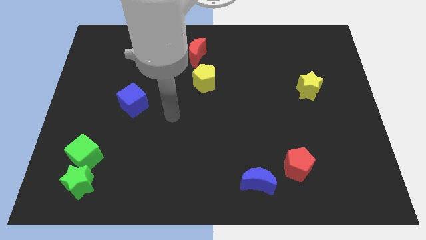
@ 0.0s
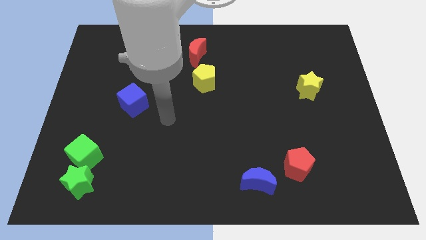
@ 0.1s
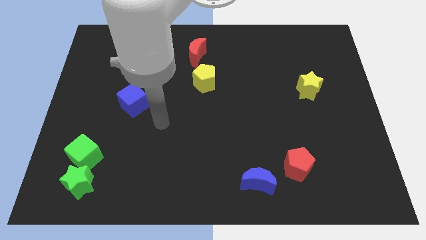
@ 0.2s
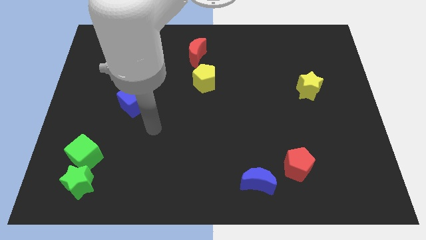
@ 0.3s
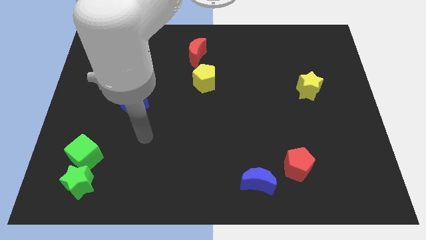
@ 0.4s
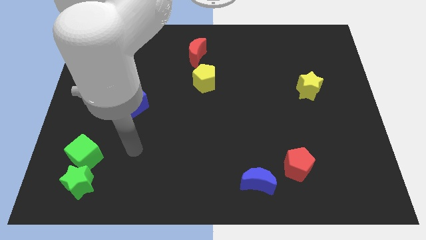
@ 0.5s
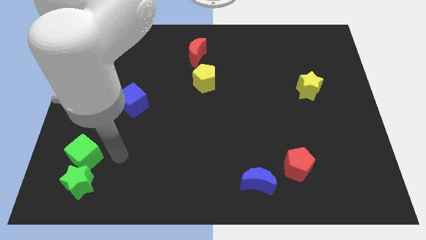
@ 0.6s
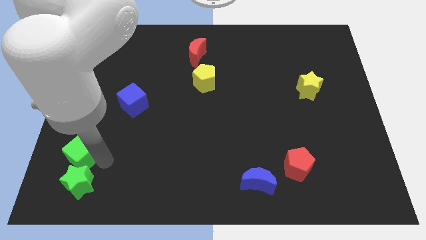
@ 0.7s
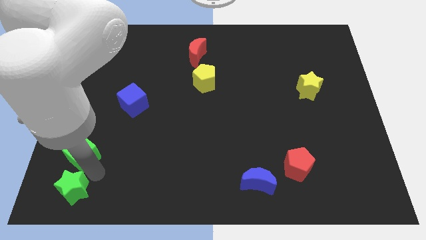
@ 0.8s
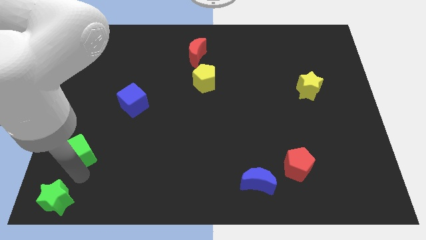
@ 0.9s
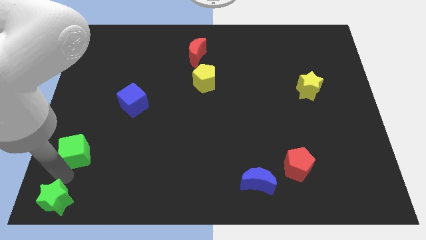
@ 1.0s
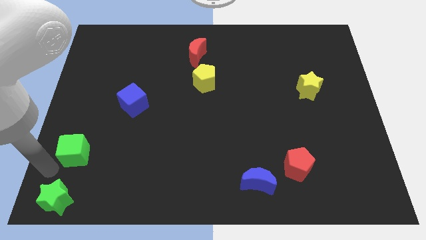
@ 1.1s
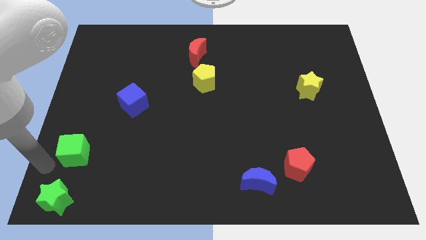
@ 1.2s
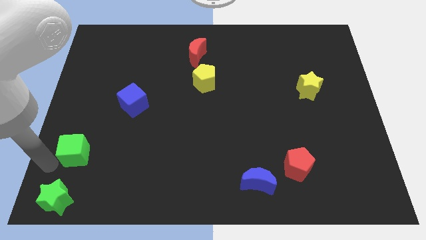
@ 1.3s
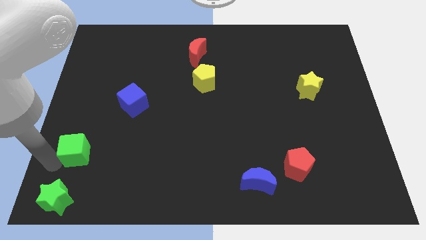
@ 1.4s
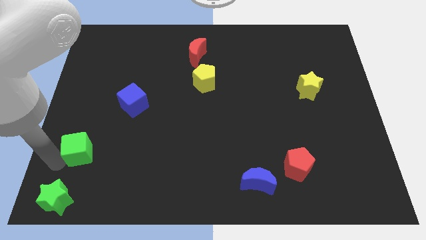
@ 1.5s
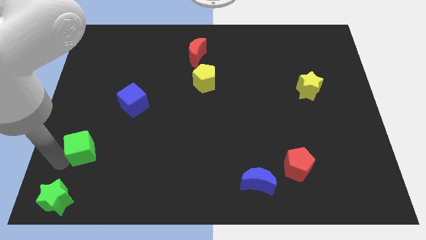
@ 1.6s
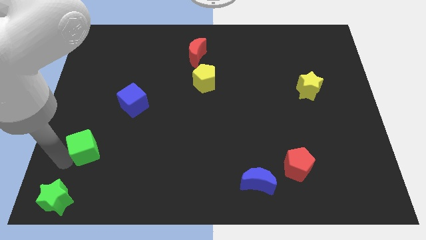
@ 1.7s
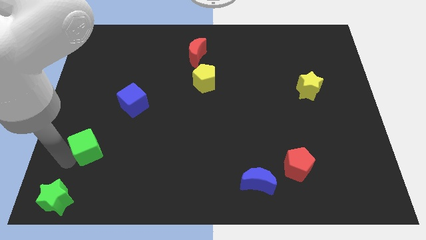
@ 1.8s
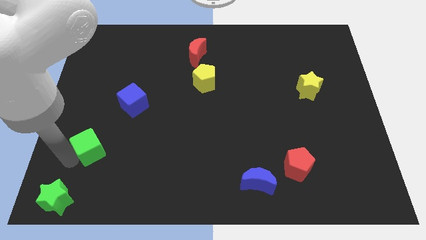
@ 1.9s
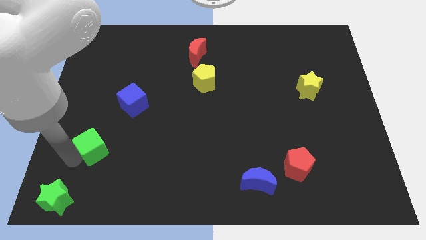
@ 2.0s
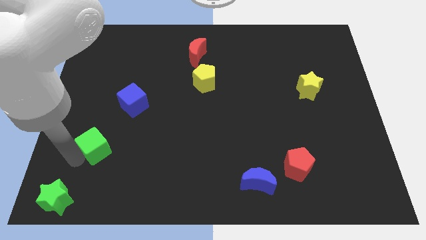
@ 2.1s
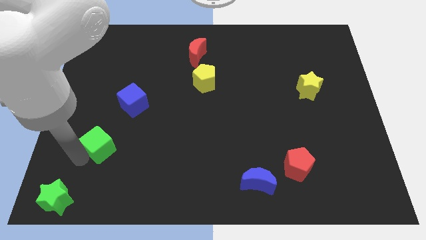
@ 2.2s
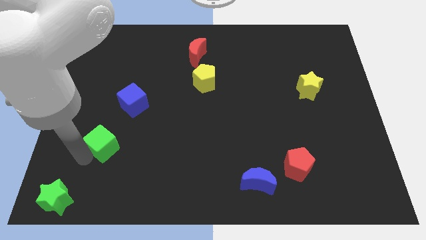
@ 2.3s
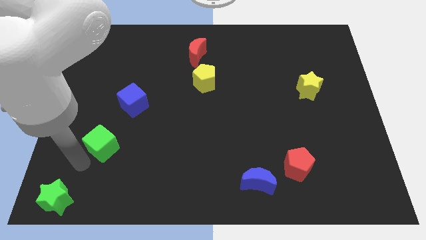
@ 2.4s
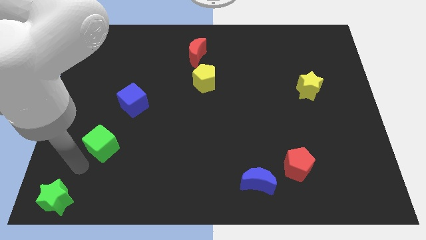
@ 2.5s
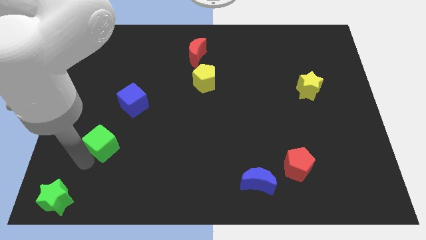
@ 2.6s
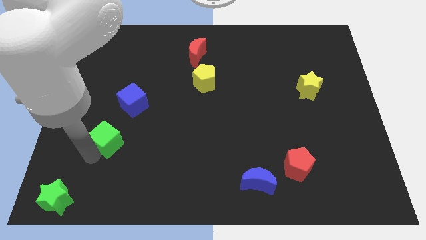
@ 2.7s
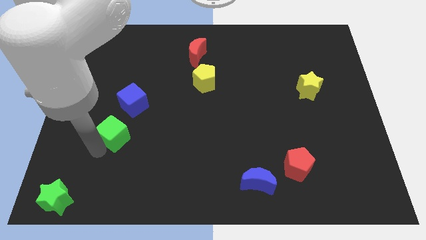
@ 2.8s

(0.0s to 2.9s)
push the green cube up and to the right a little bit

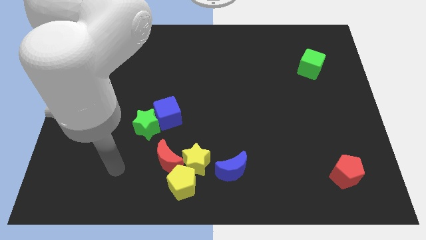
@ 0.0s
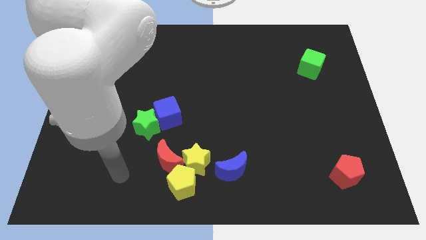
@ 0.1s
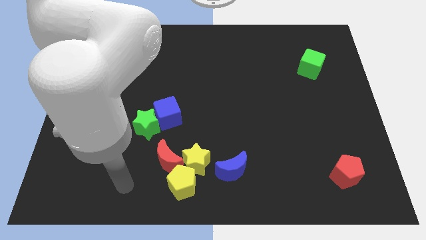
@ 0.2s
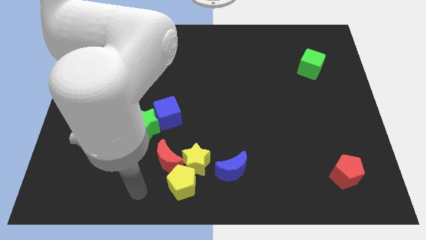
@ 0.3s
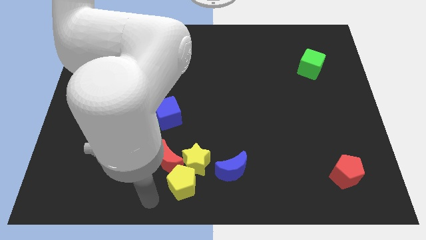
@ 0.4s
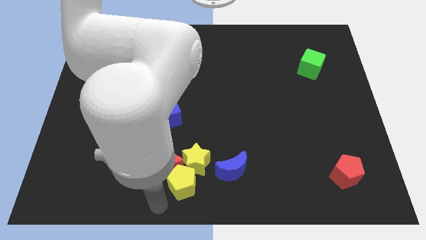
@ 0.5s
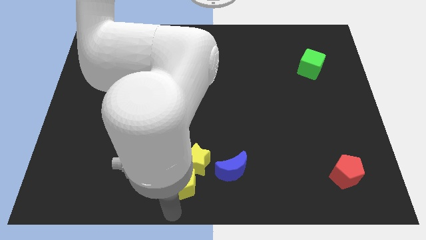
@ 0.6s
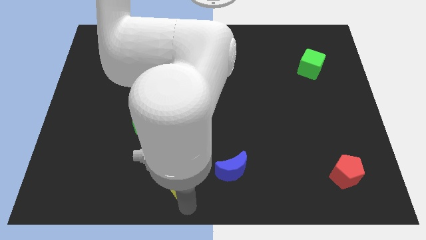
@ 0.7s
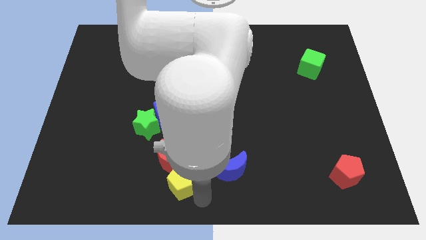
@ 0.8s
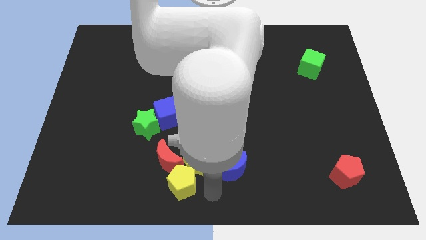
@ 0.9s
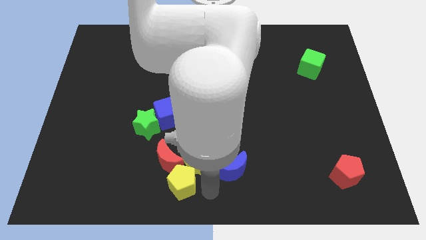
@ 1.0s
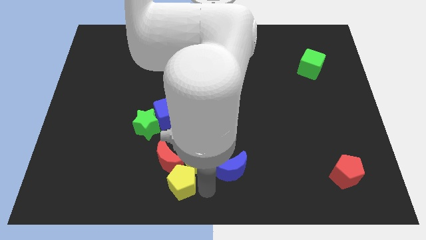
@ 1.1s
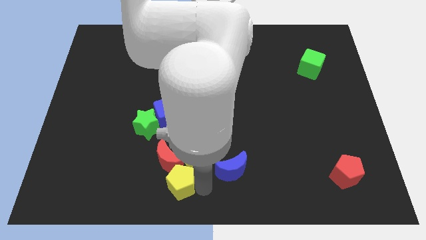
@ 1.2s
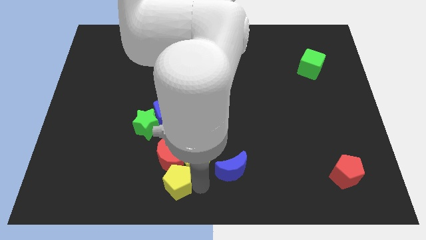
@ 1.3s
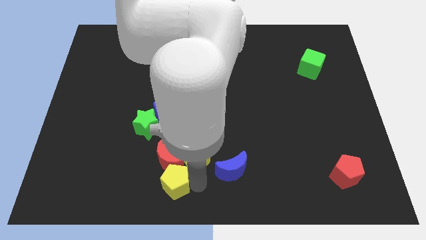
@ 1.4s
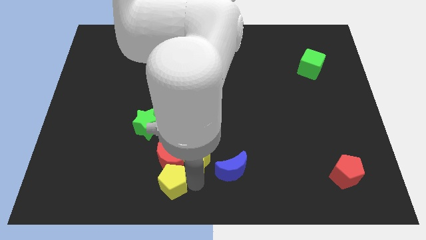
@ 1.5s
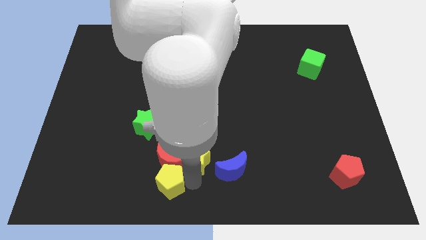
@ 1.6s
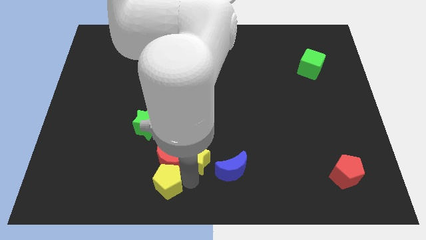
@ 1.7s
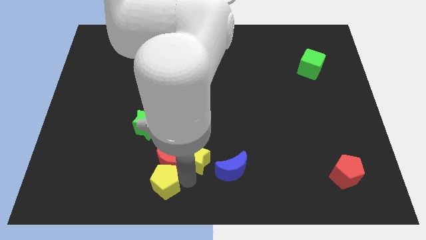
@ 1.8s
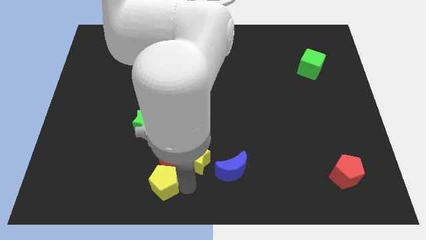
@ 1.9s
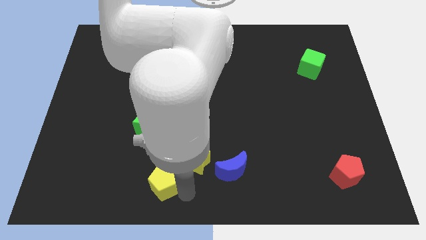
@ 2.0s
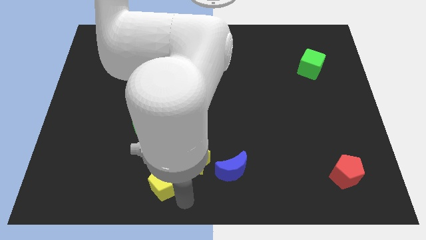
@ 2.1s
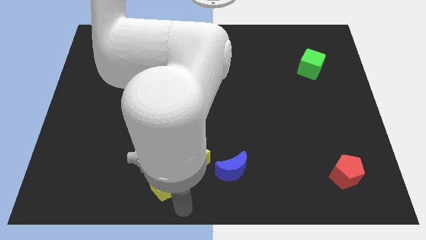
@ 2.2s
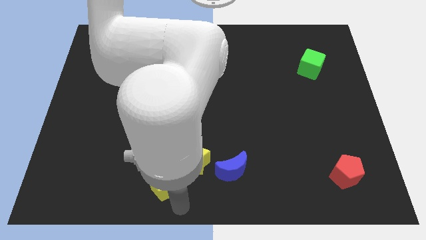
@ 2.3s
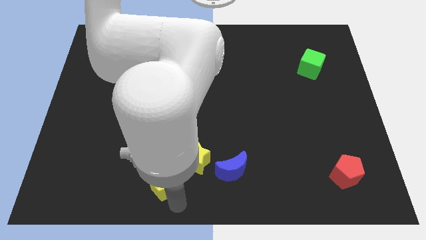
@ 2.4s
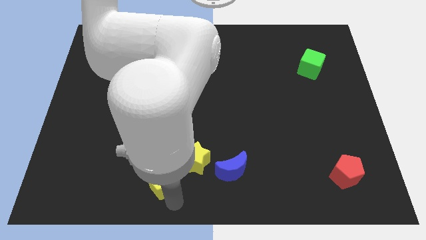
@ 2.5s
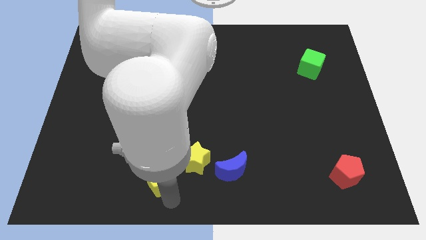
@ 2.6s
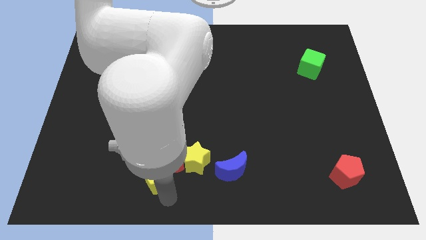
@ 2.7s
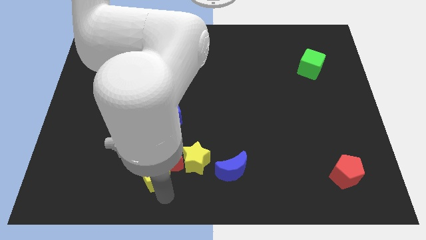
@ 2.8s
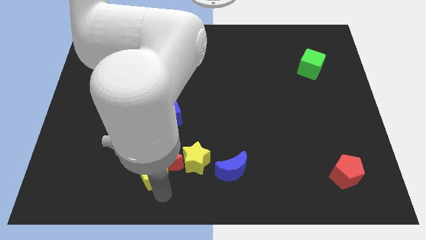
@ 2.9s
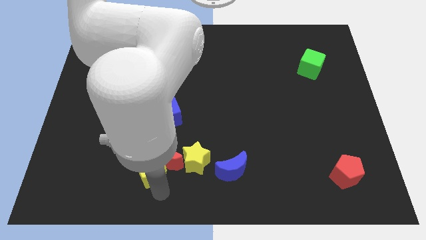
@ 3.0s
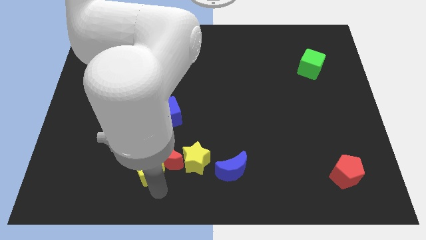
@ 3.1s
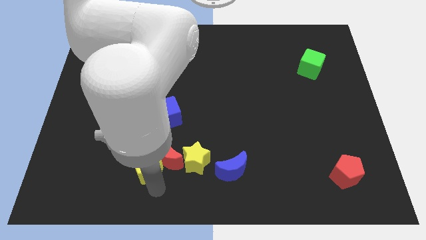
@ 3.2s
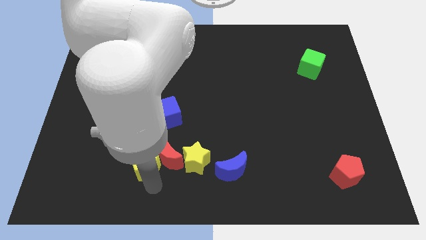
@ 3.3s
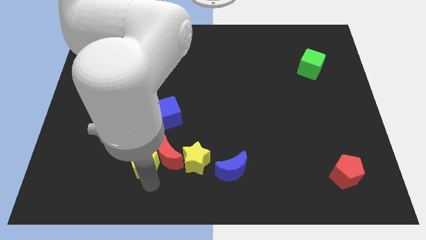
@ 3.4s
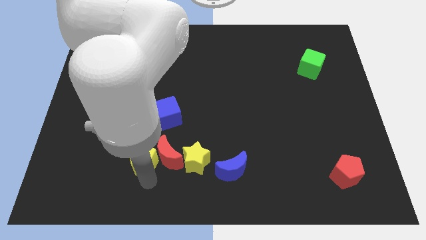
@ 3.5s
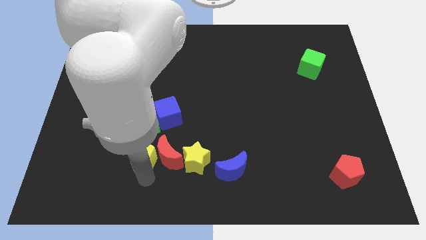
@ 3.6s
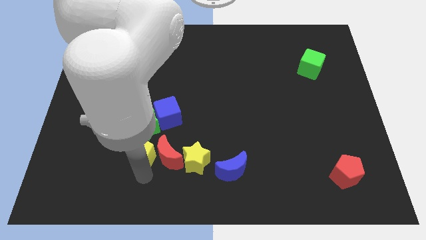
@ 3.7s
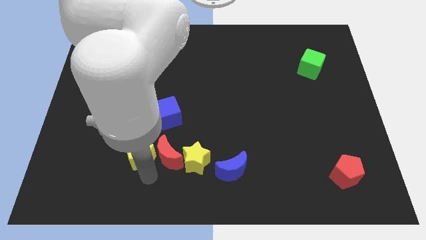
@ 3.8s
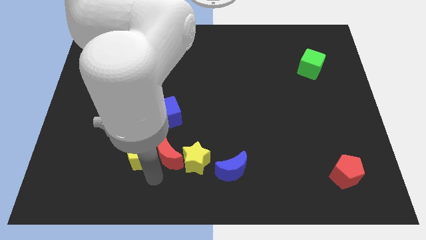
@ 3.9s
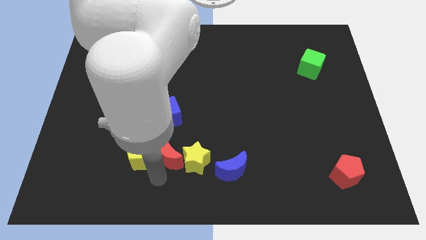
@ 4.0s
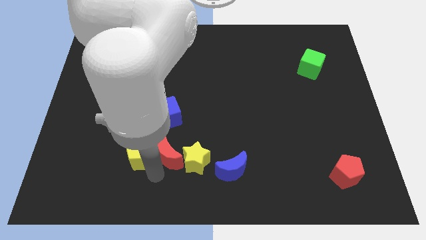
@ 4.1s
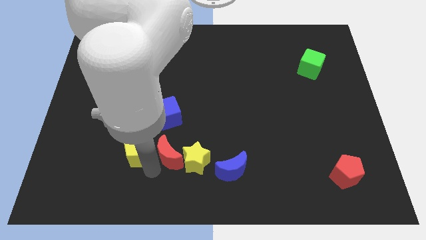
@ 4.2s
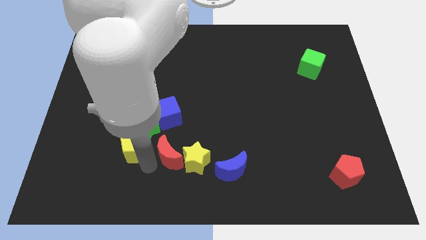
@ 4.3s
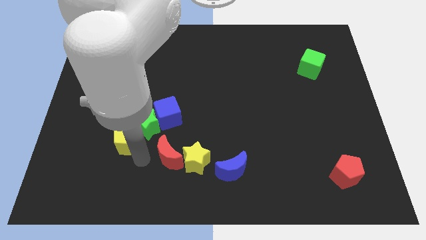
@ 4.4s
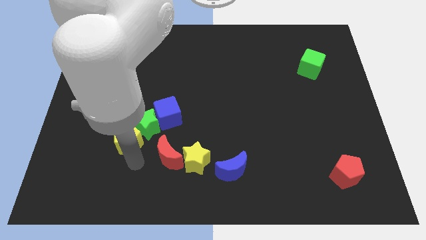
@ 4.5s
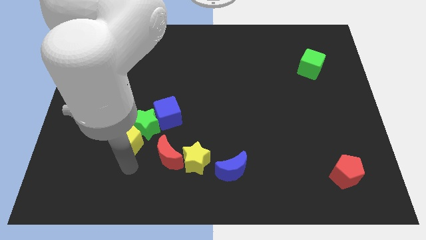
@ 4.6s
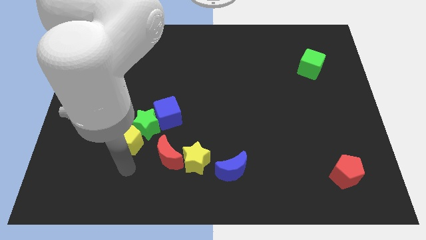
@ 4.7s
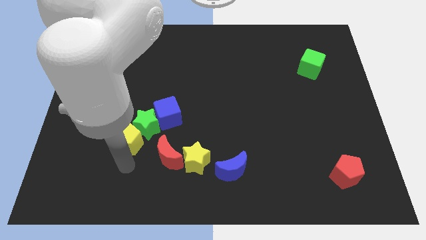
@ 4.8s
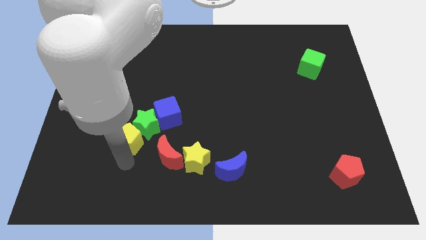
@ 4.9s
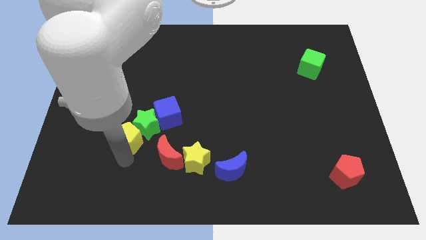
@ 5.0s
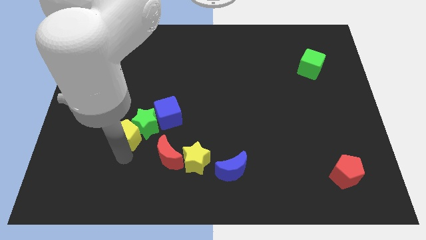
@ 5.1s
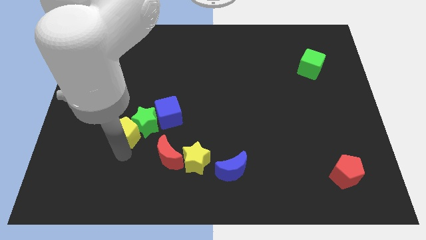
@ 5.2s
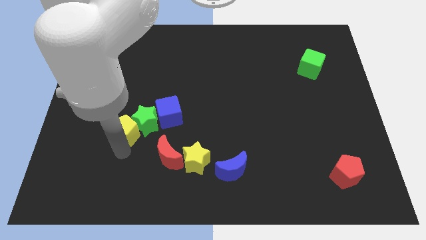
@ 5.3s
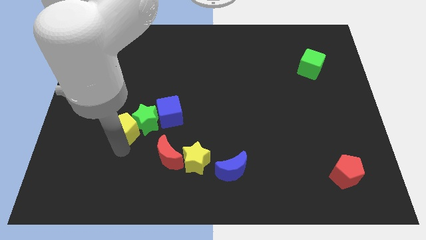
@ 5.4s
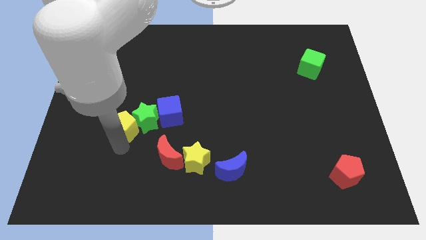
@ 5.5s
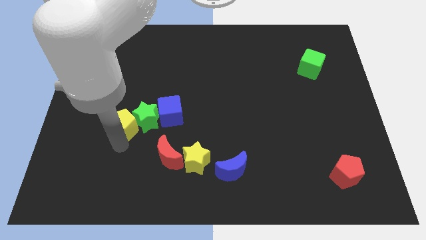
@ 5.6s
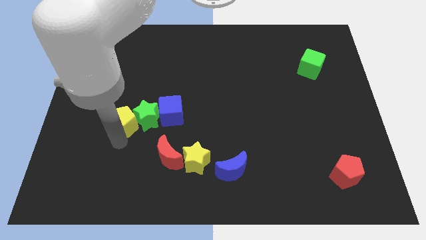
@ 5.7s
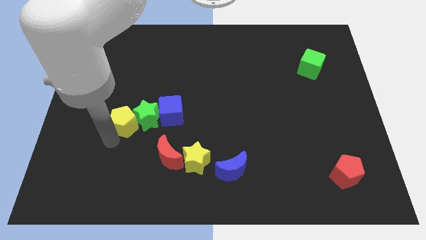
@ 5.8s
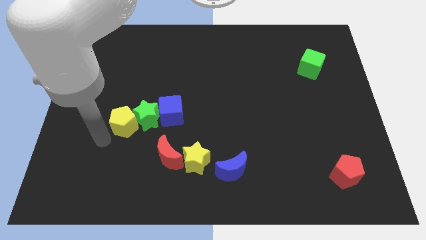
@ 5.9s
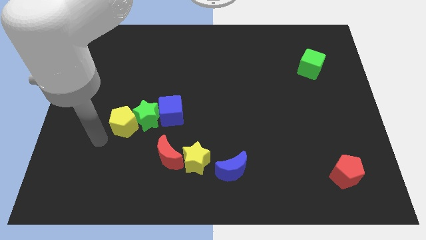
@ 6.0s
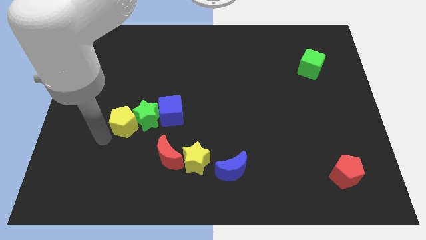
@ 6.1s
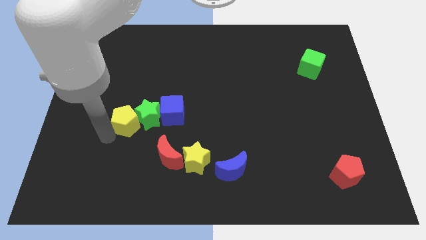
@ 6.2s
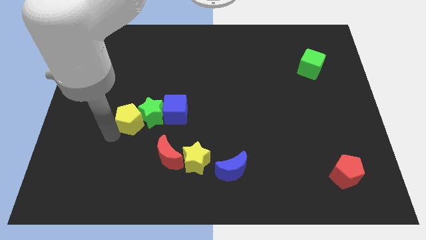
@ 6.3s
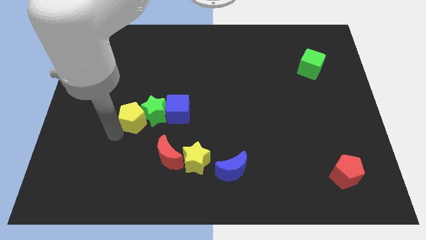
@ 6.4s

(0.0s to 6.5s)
slide the yellow pentagon upwards a bit
